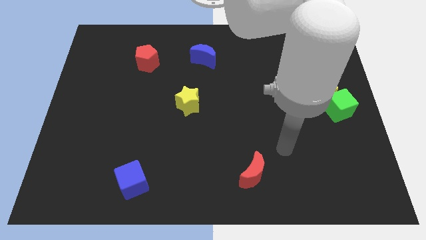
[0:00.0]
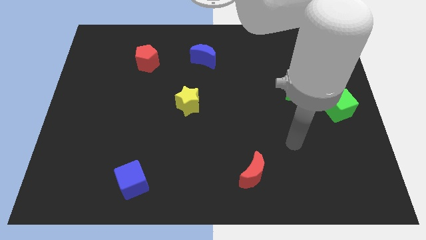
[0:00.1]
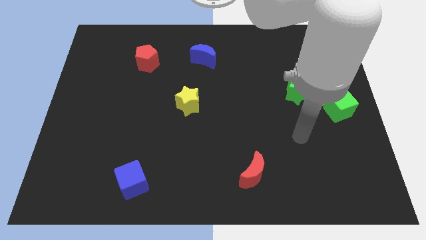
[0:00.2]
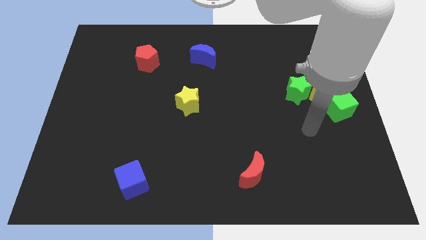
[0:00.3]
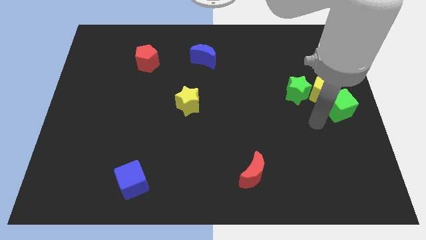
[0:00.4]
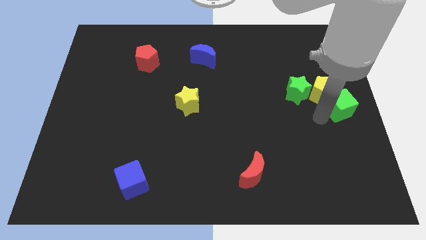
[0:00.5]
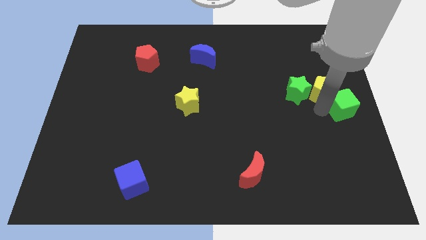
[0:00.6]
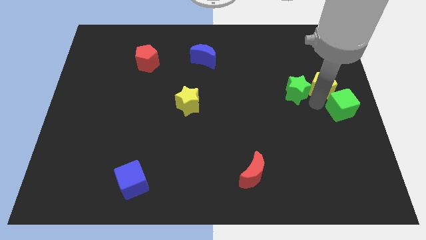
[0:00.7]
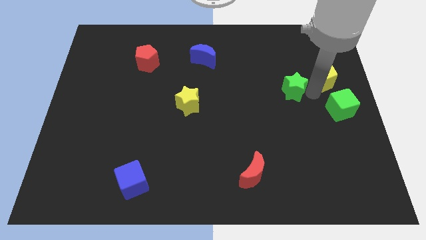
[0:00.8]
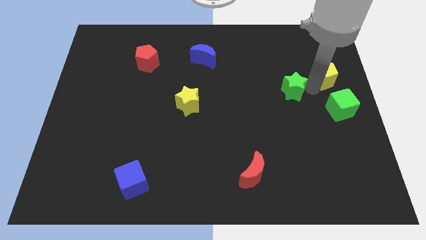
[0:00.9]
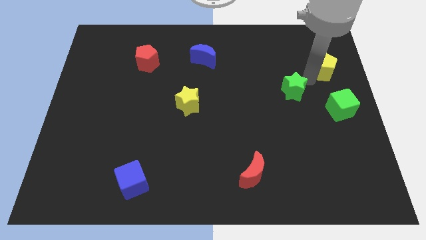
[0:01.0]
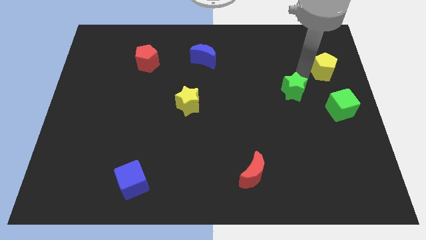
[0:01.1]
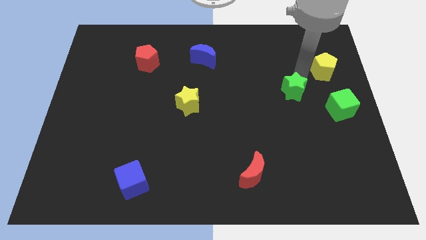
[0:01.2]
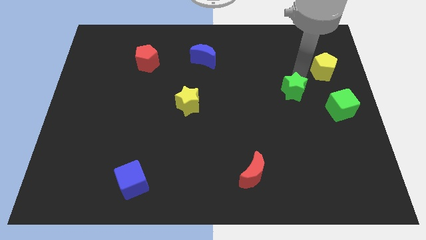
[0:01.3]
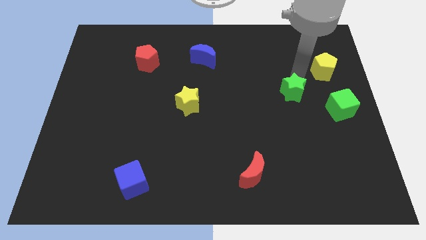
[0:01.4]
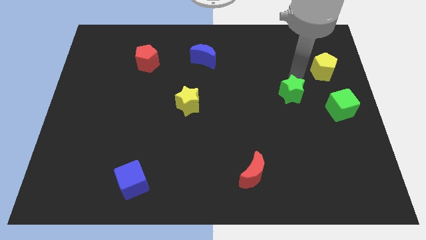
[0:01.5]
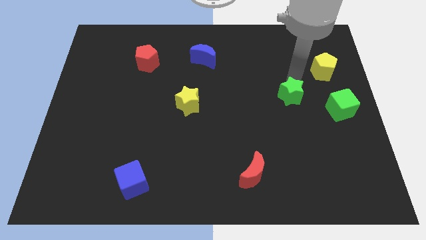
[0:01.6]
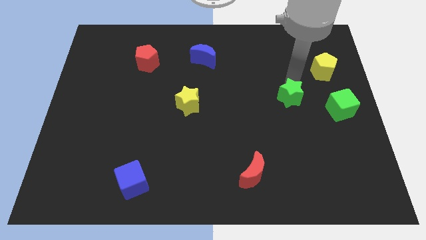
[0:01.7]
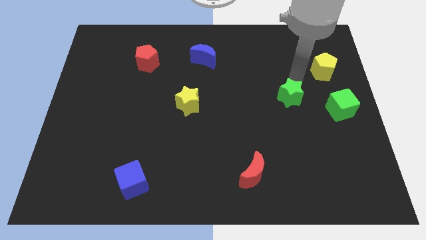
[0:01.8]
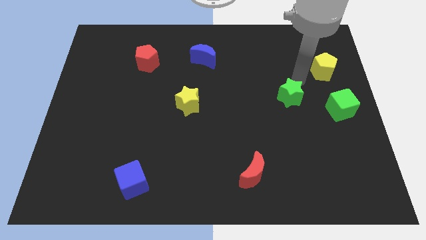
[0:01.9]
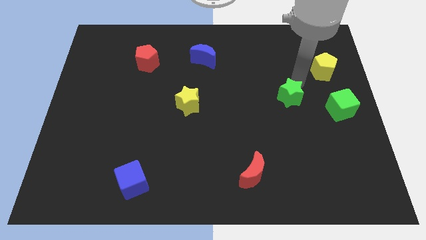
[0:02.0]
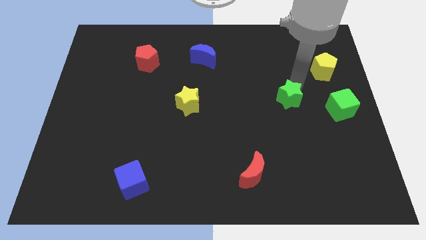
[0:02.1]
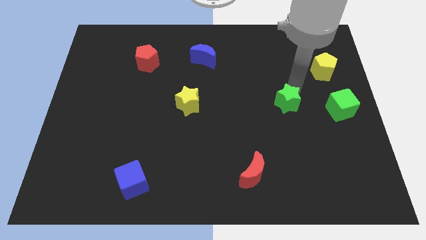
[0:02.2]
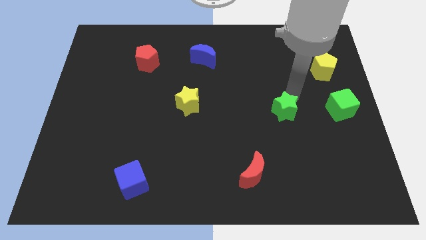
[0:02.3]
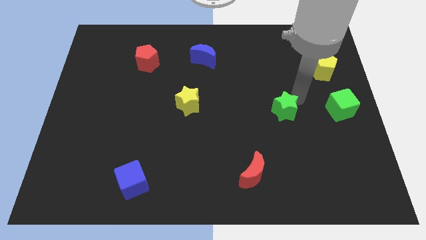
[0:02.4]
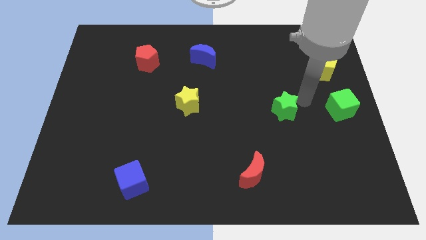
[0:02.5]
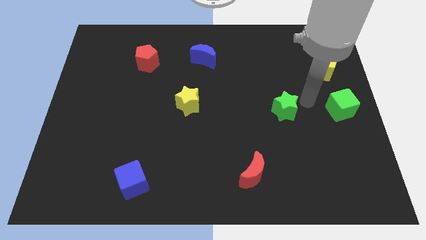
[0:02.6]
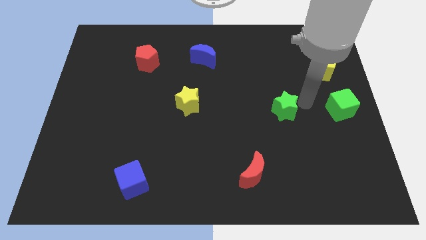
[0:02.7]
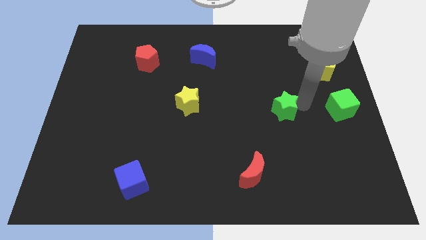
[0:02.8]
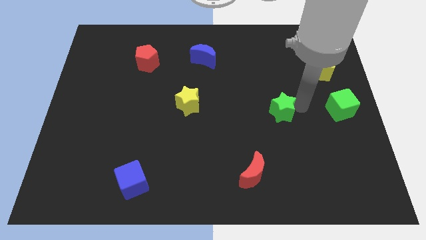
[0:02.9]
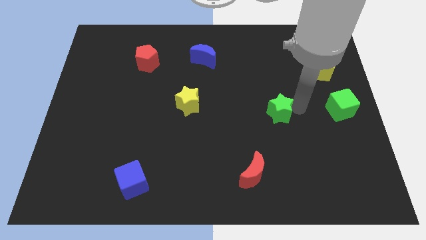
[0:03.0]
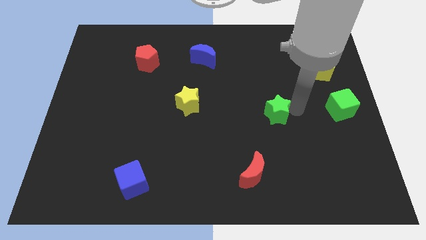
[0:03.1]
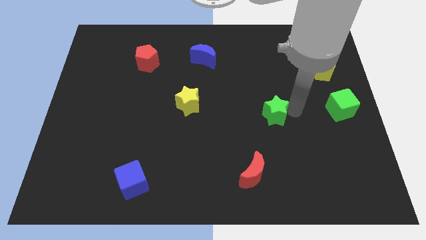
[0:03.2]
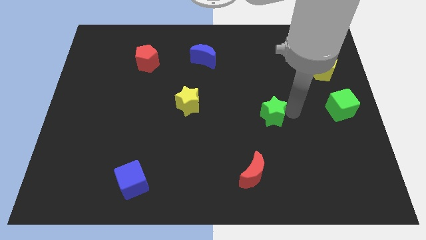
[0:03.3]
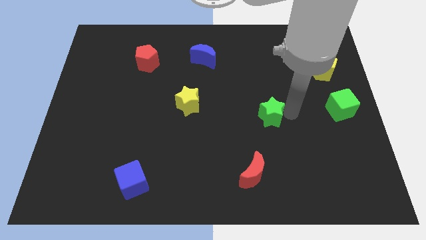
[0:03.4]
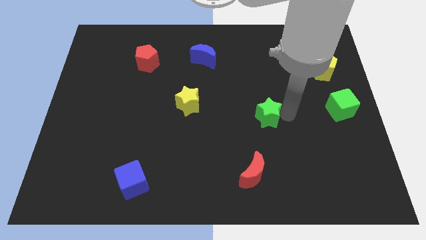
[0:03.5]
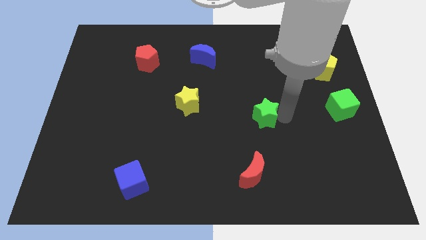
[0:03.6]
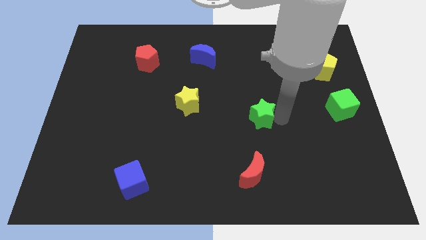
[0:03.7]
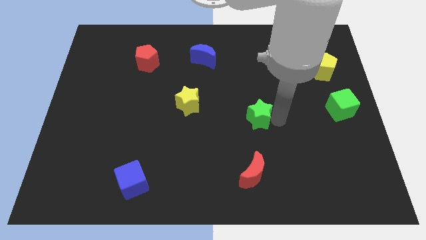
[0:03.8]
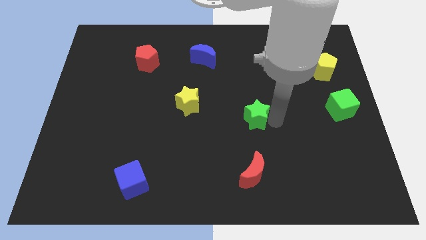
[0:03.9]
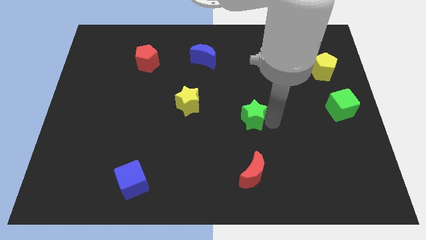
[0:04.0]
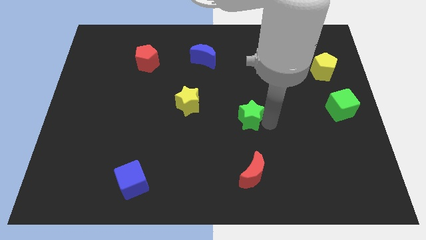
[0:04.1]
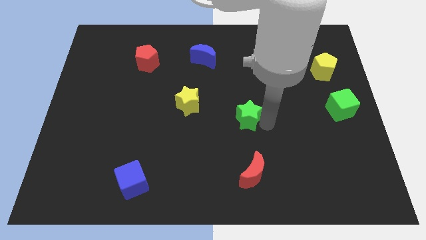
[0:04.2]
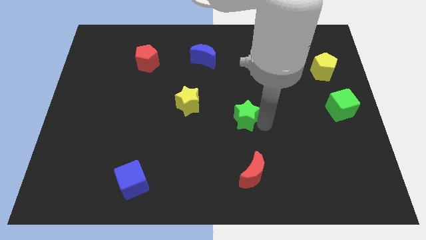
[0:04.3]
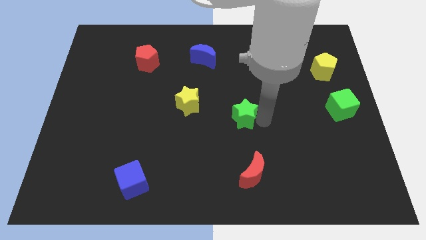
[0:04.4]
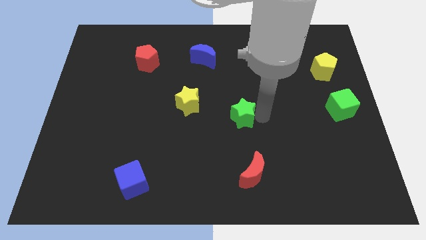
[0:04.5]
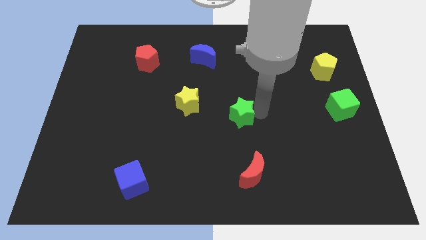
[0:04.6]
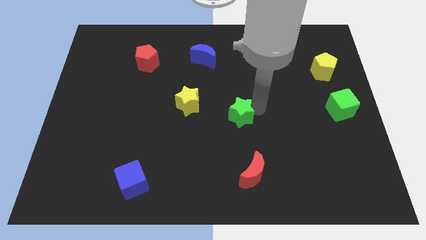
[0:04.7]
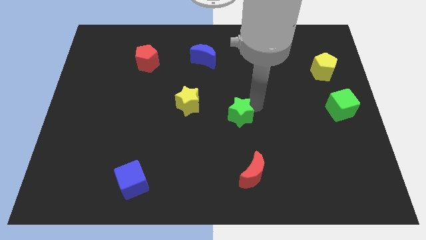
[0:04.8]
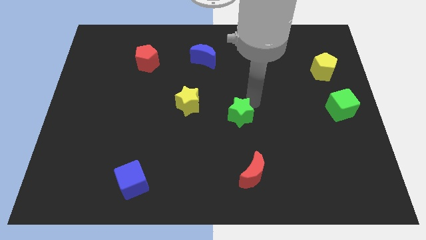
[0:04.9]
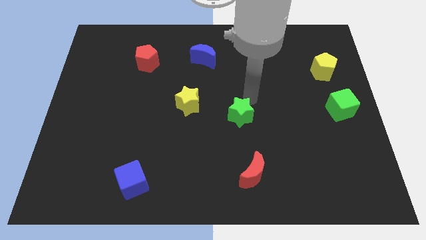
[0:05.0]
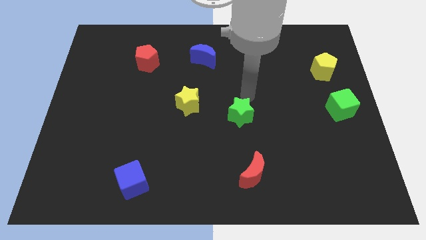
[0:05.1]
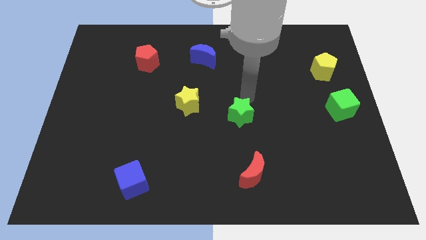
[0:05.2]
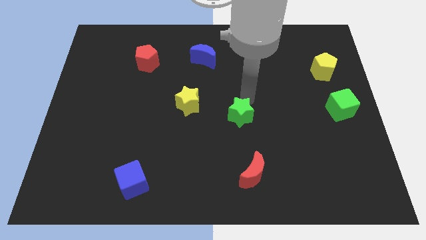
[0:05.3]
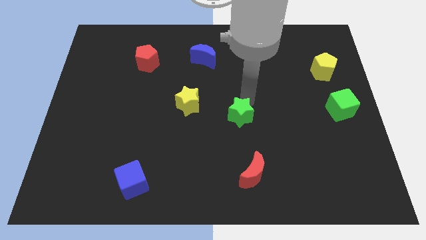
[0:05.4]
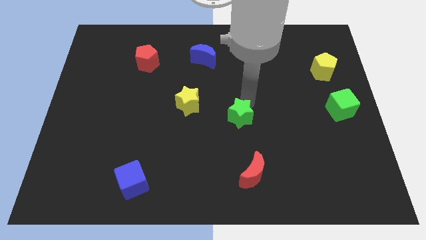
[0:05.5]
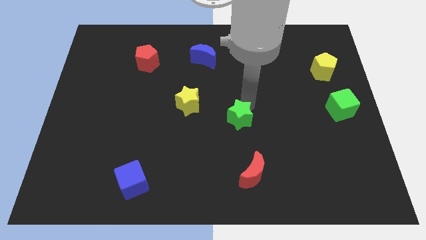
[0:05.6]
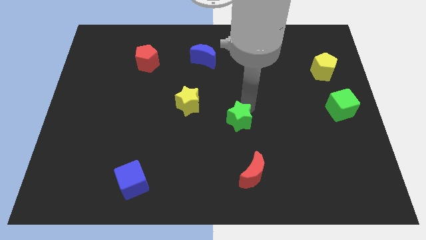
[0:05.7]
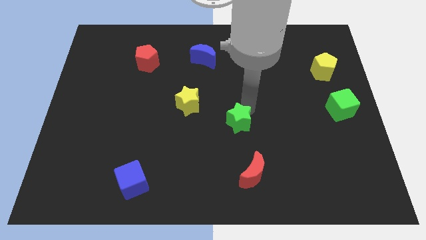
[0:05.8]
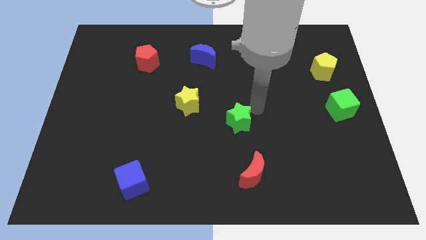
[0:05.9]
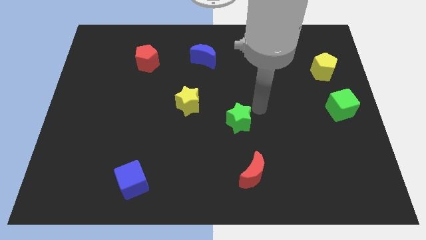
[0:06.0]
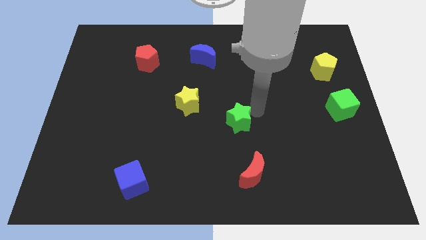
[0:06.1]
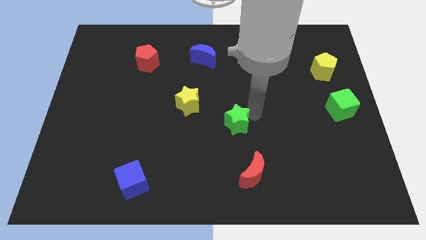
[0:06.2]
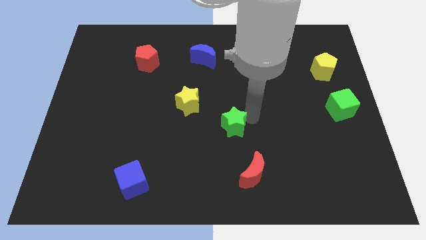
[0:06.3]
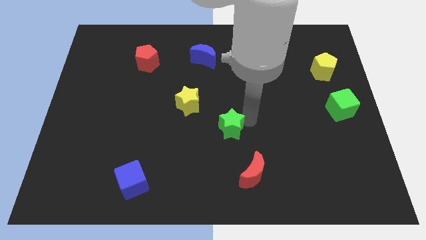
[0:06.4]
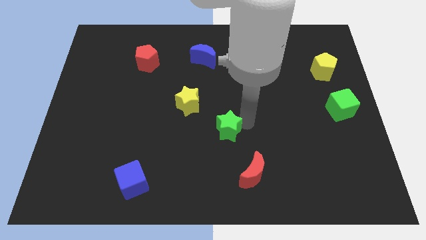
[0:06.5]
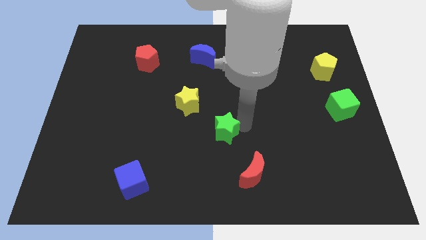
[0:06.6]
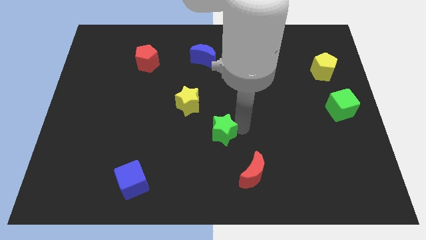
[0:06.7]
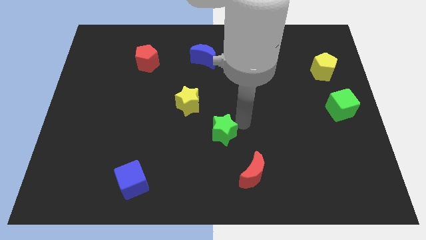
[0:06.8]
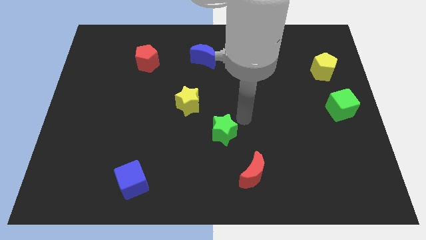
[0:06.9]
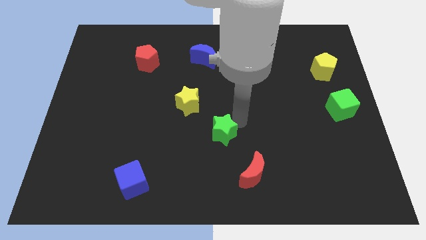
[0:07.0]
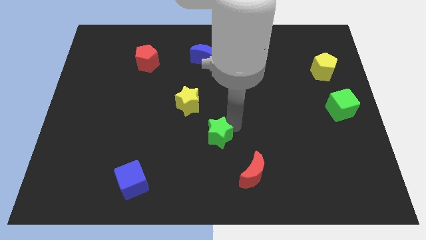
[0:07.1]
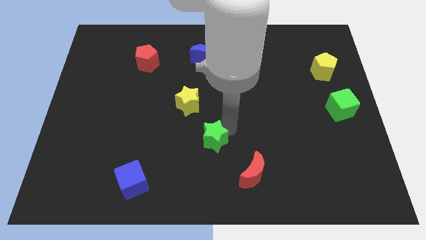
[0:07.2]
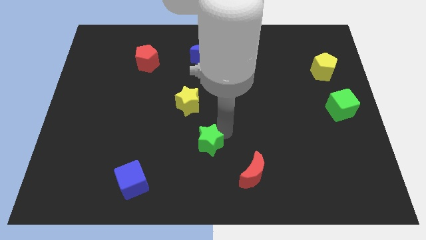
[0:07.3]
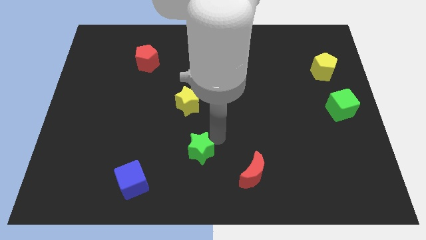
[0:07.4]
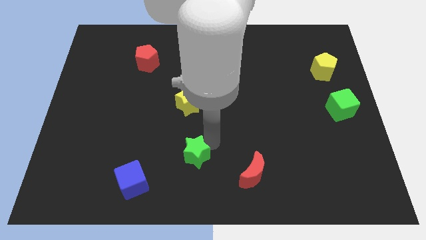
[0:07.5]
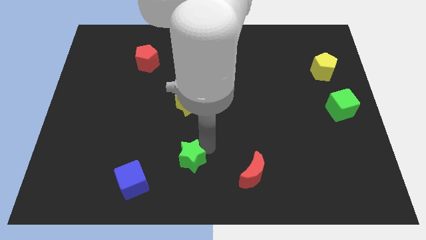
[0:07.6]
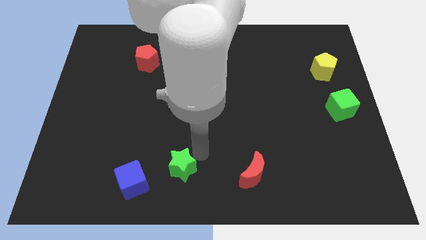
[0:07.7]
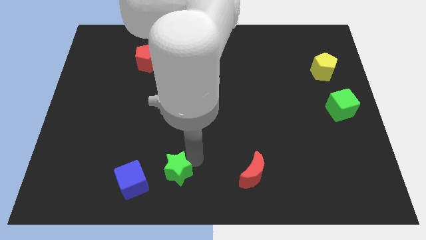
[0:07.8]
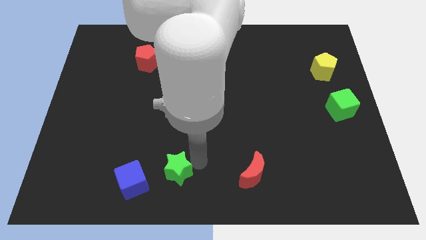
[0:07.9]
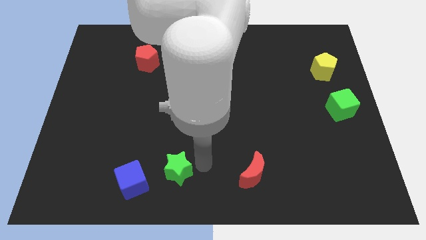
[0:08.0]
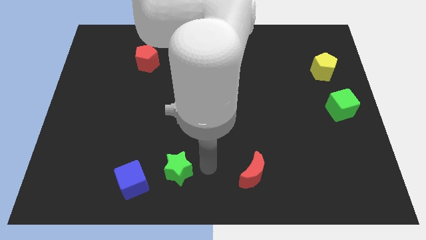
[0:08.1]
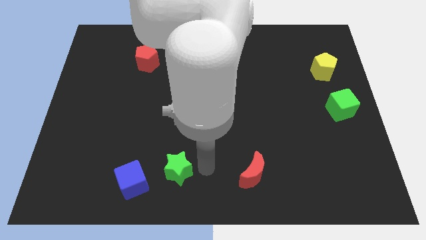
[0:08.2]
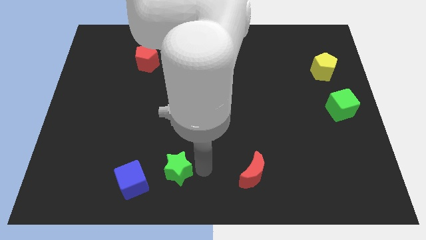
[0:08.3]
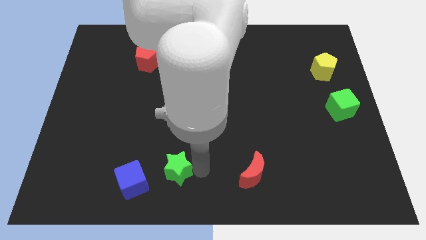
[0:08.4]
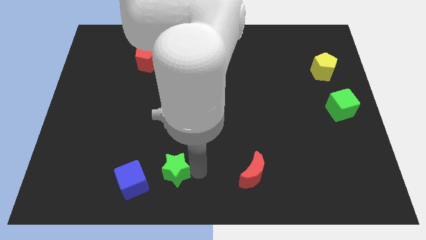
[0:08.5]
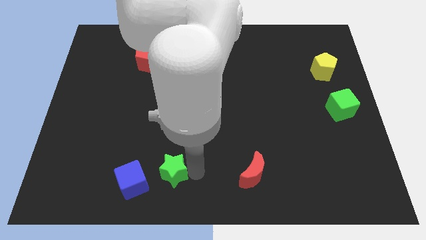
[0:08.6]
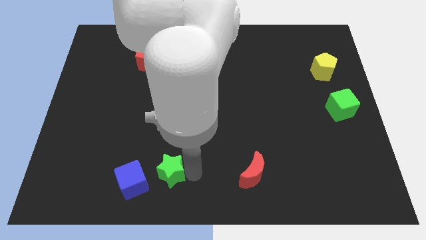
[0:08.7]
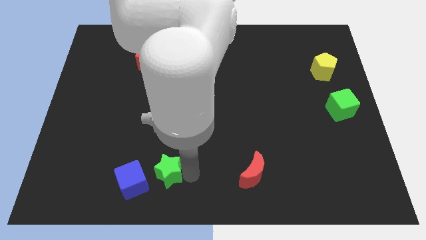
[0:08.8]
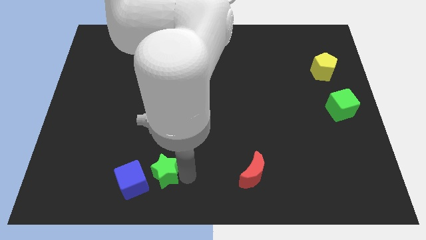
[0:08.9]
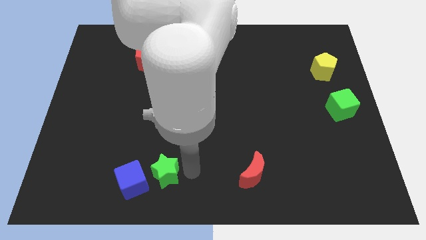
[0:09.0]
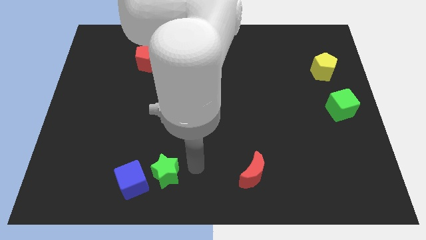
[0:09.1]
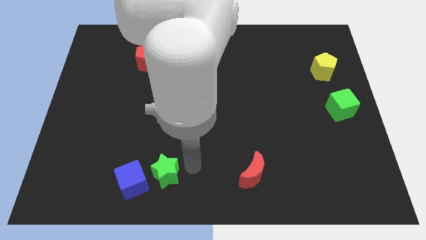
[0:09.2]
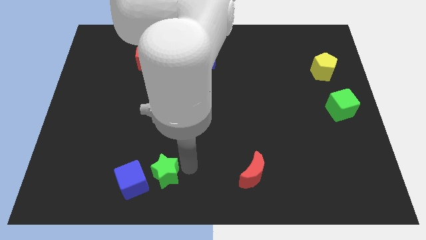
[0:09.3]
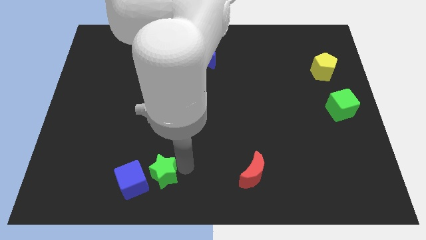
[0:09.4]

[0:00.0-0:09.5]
move the green star next to the blue cube
